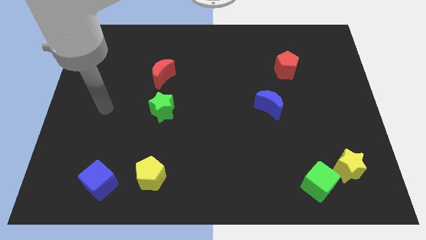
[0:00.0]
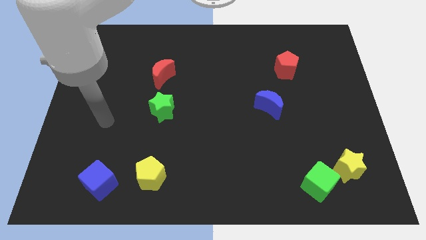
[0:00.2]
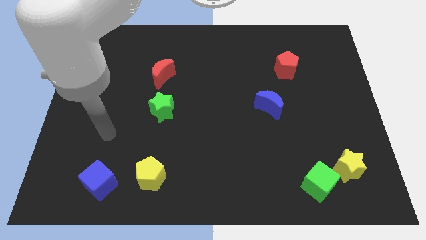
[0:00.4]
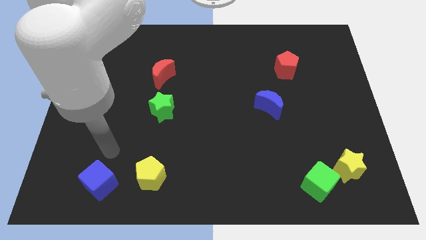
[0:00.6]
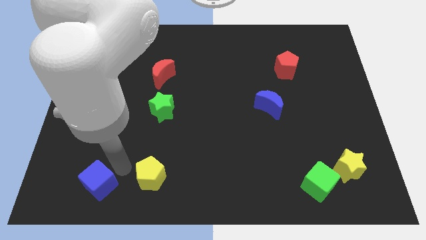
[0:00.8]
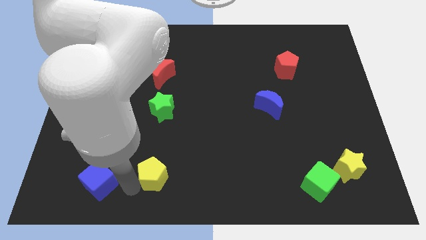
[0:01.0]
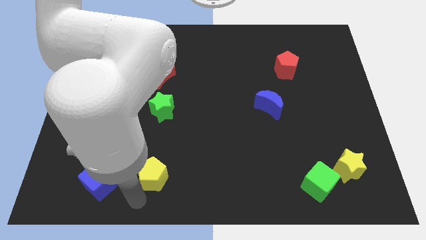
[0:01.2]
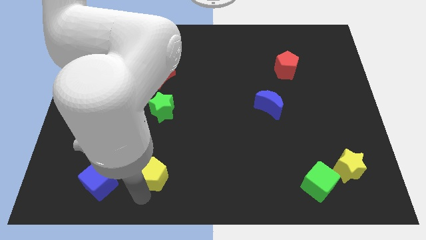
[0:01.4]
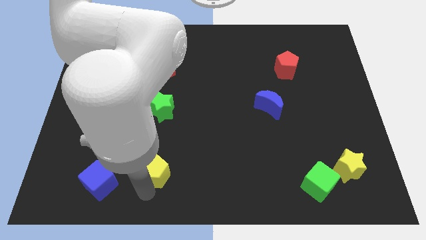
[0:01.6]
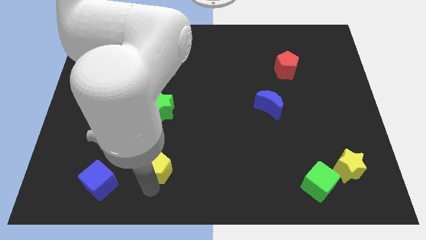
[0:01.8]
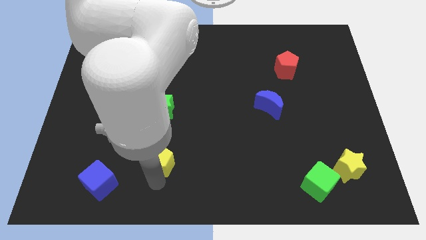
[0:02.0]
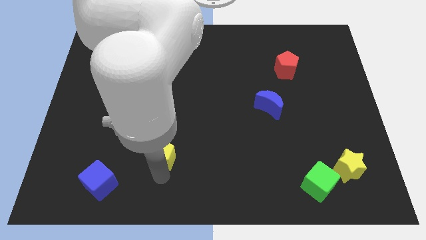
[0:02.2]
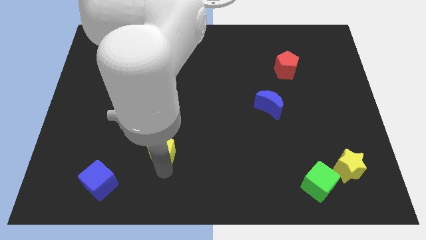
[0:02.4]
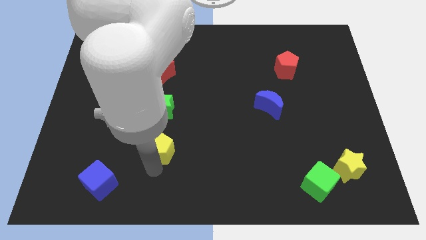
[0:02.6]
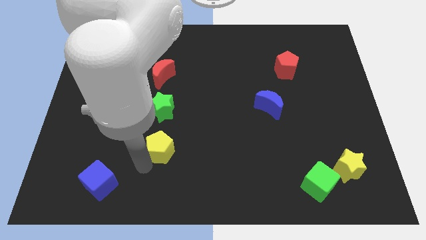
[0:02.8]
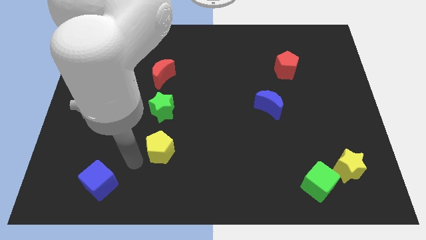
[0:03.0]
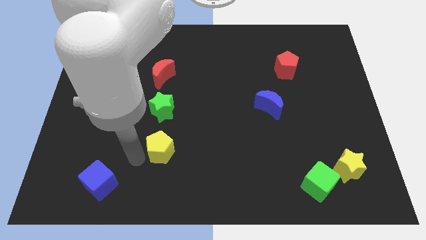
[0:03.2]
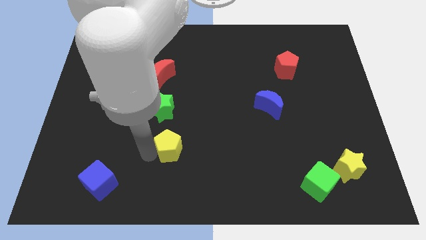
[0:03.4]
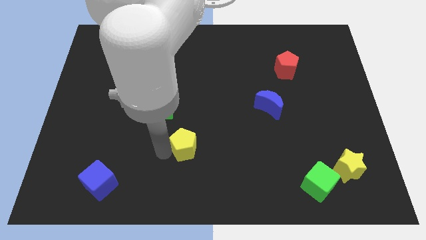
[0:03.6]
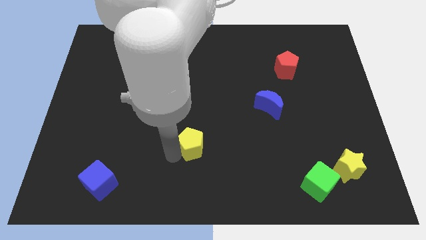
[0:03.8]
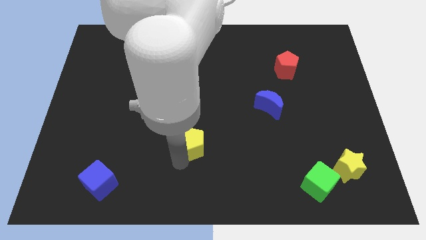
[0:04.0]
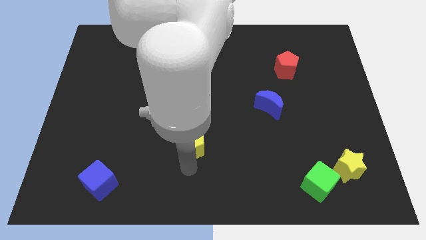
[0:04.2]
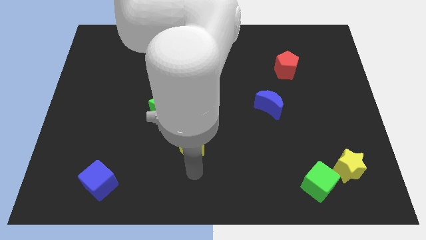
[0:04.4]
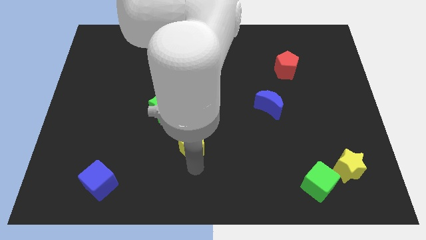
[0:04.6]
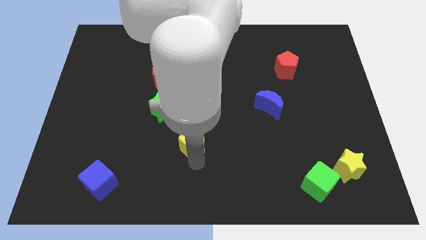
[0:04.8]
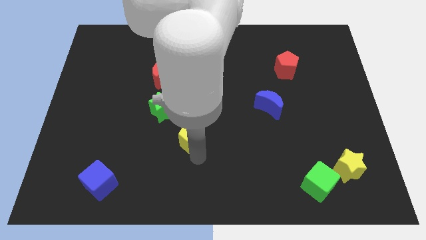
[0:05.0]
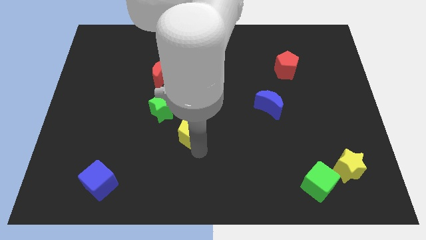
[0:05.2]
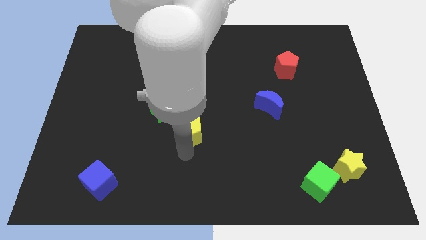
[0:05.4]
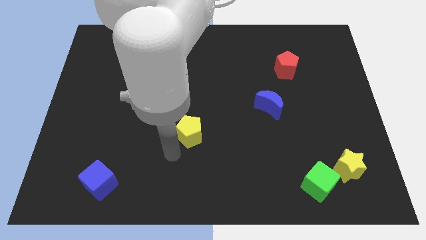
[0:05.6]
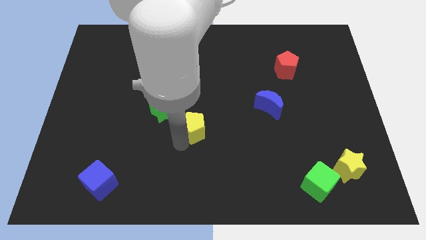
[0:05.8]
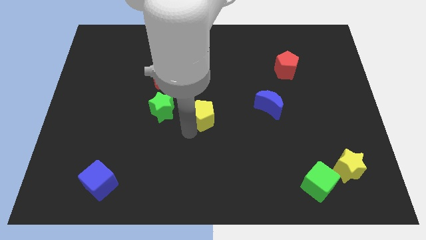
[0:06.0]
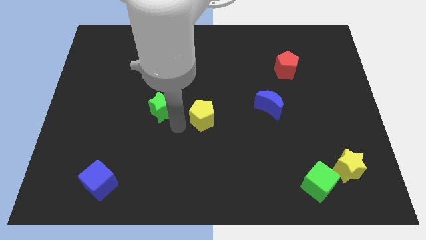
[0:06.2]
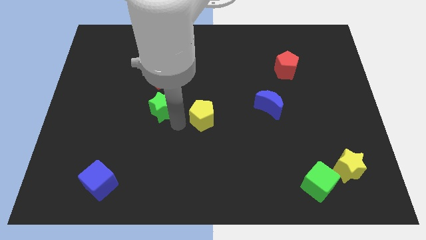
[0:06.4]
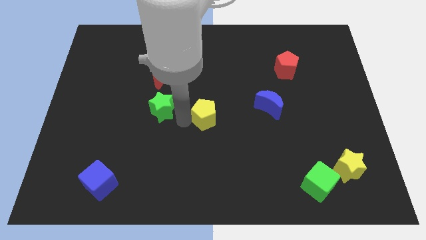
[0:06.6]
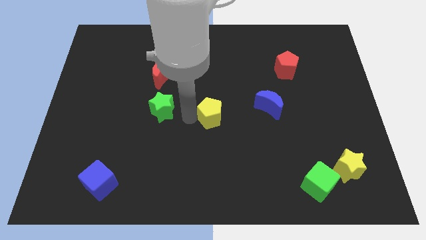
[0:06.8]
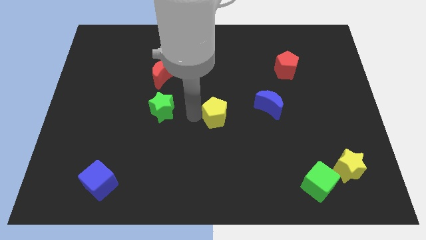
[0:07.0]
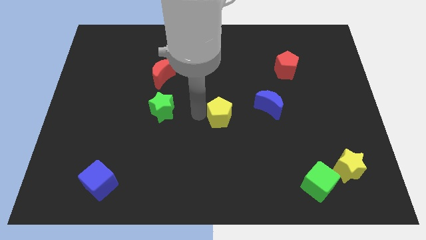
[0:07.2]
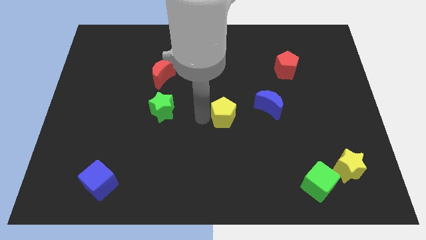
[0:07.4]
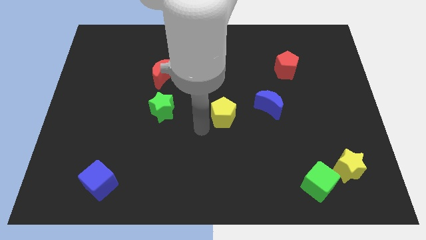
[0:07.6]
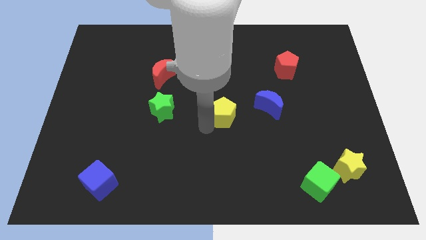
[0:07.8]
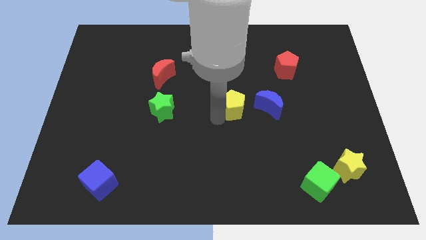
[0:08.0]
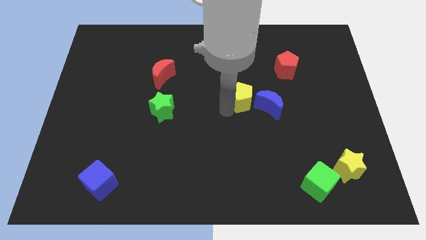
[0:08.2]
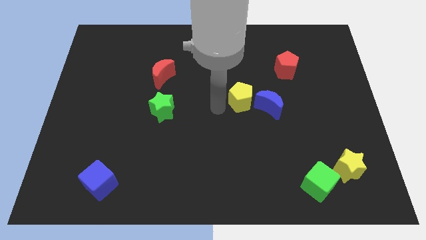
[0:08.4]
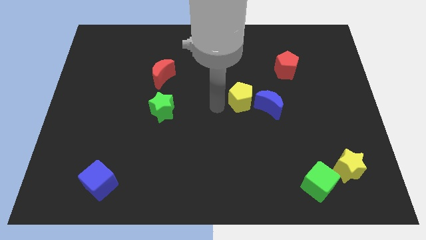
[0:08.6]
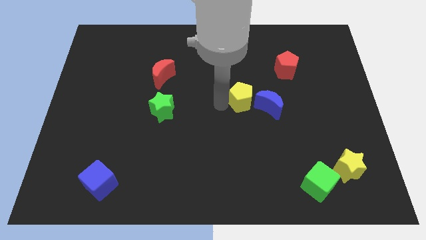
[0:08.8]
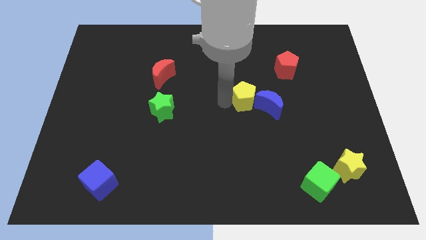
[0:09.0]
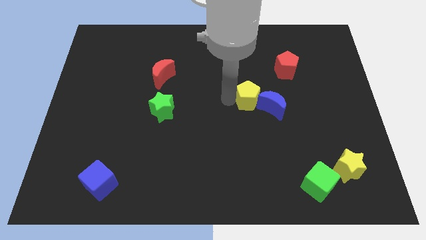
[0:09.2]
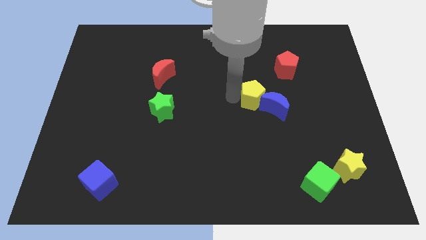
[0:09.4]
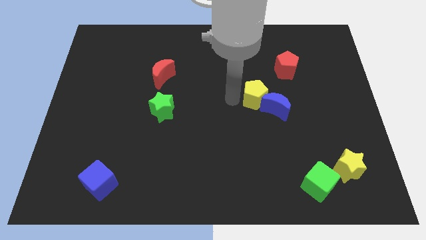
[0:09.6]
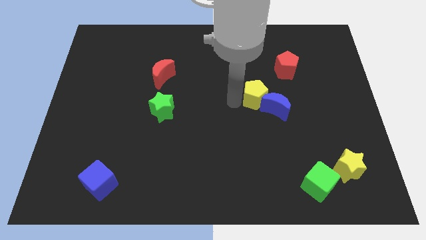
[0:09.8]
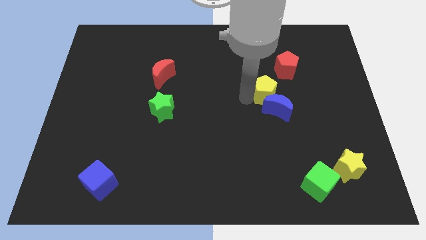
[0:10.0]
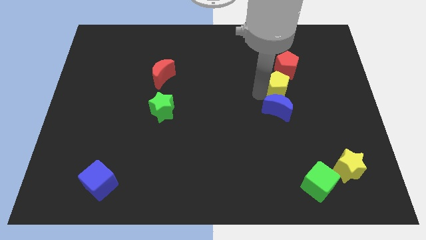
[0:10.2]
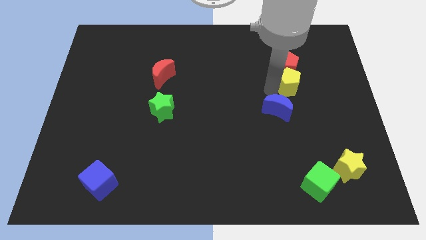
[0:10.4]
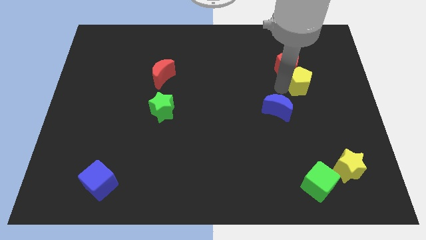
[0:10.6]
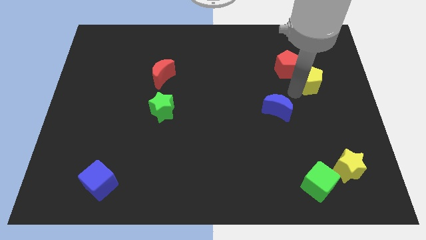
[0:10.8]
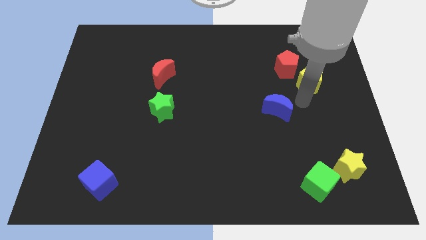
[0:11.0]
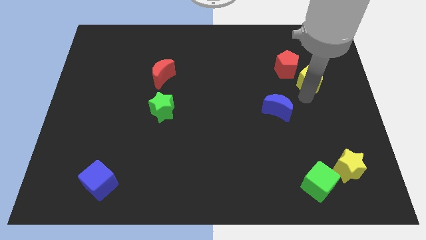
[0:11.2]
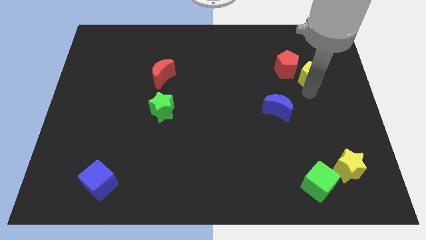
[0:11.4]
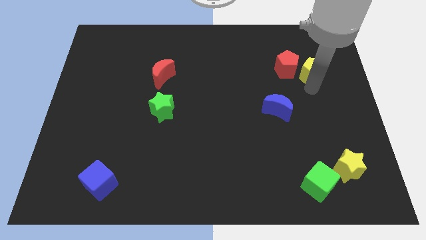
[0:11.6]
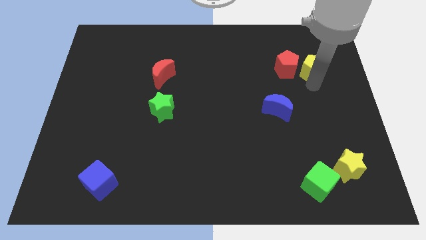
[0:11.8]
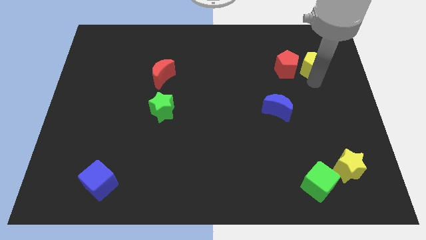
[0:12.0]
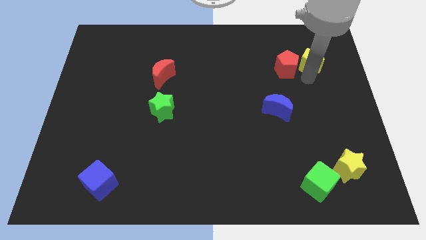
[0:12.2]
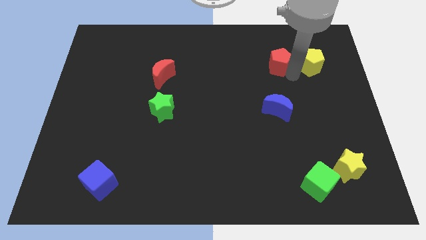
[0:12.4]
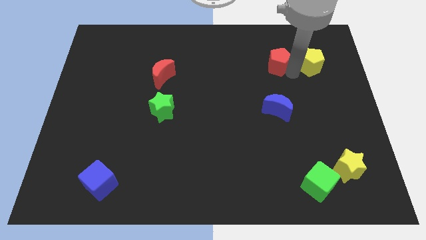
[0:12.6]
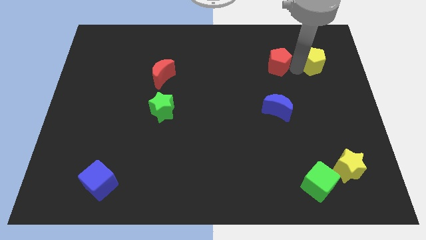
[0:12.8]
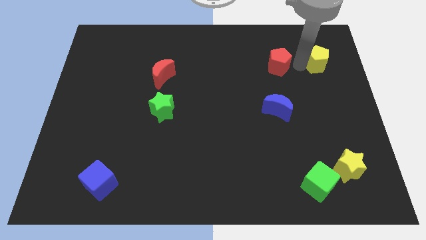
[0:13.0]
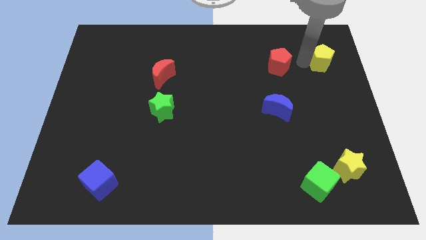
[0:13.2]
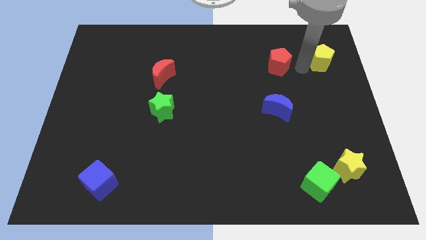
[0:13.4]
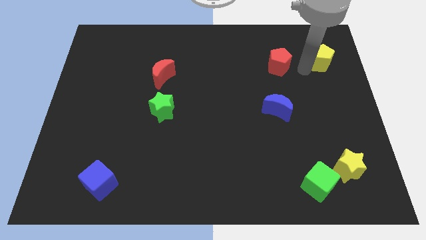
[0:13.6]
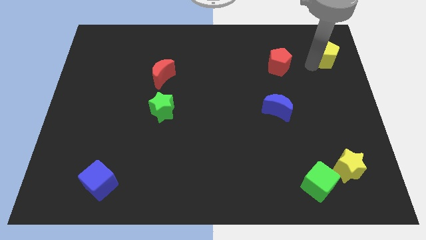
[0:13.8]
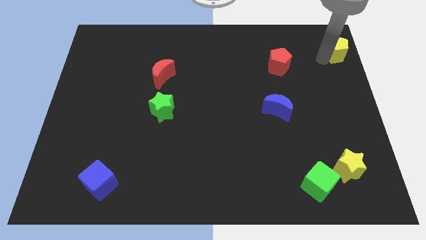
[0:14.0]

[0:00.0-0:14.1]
put the yellow pentagon to the upper right corner
